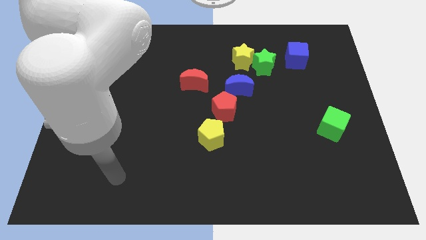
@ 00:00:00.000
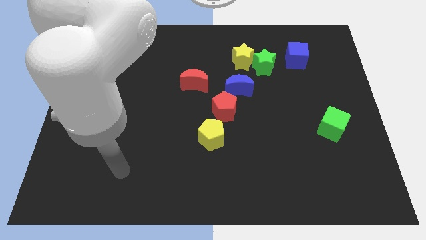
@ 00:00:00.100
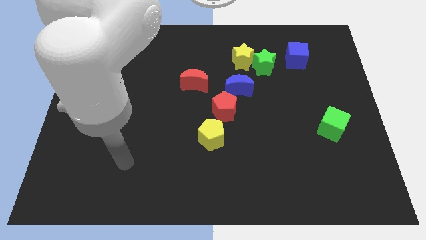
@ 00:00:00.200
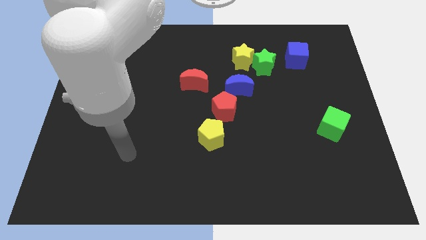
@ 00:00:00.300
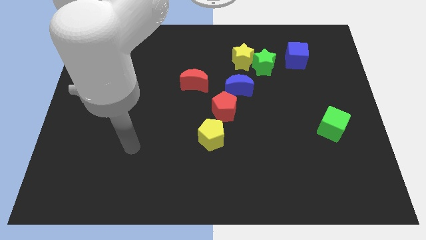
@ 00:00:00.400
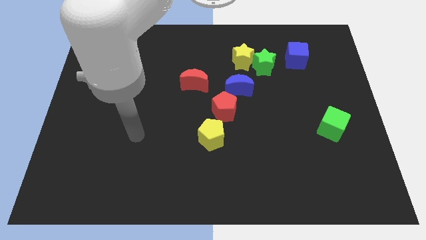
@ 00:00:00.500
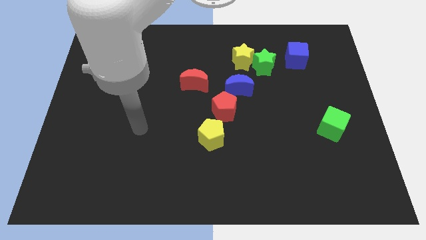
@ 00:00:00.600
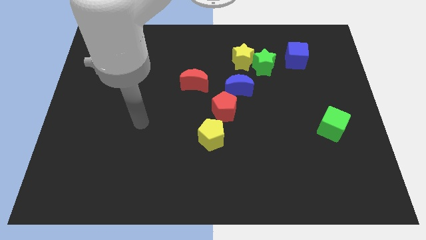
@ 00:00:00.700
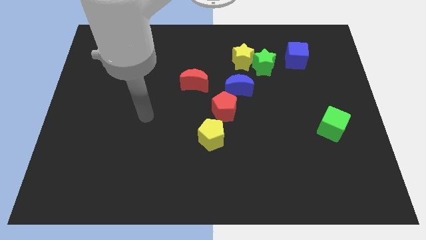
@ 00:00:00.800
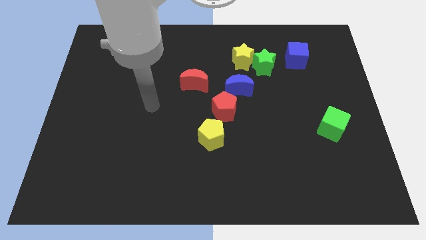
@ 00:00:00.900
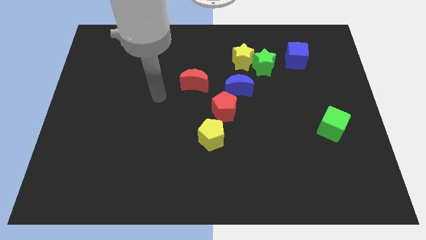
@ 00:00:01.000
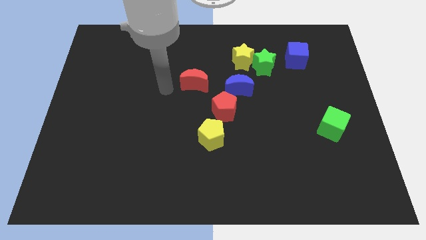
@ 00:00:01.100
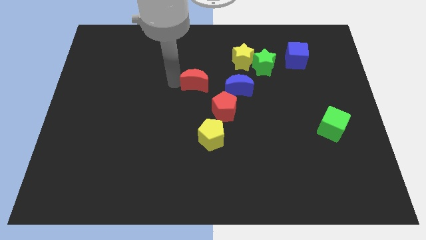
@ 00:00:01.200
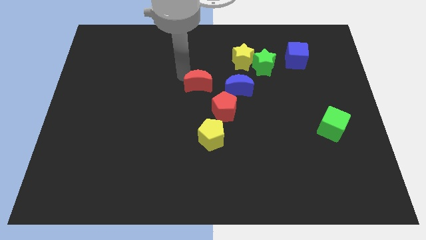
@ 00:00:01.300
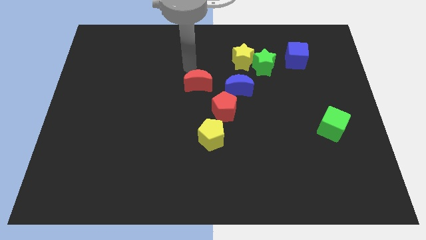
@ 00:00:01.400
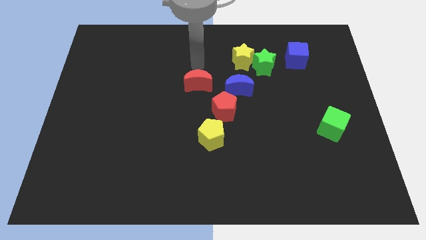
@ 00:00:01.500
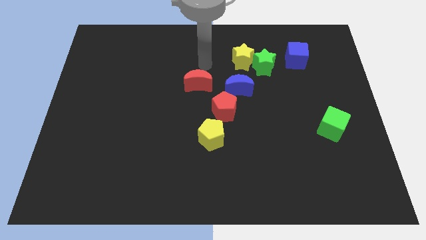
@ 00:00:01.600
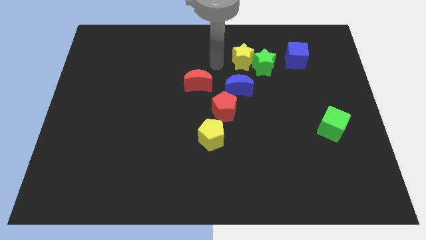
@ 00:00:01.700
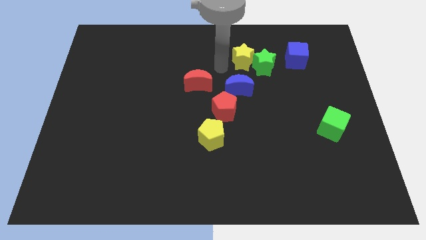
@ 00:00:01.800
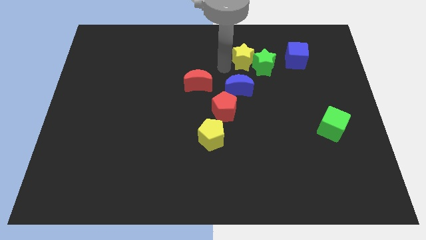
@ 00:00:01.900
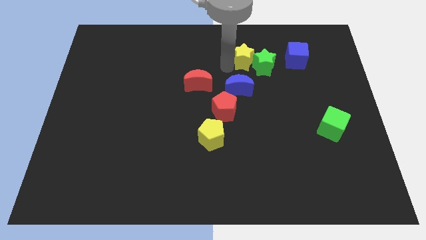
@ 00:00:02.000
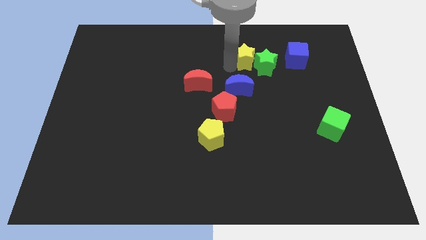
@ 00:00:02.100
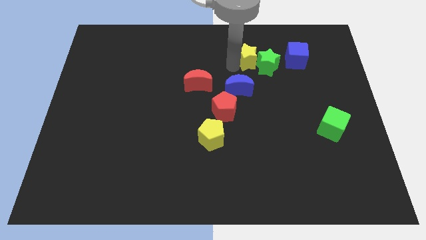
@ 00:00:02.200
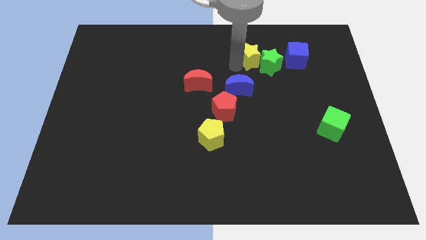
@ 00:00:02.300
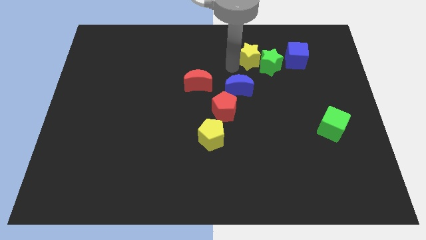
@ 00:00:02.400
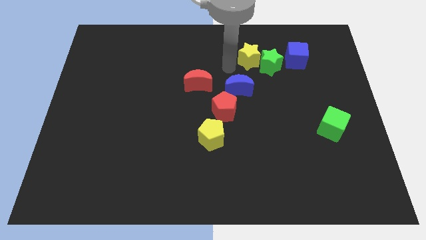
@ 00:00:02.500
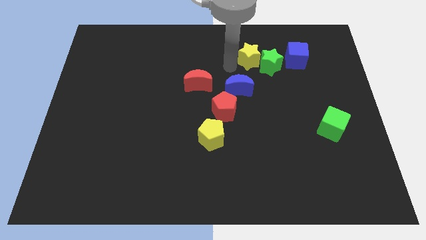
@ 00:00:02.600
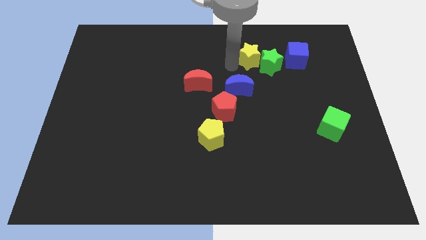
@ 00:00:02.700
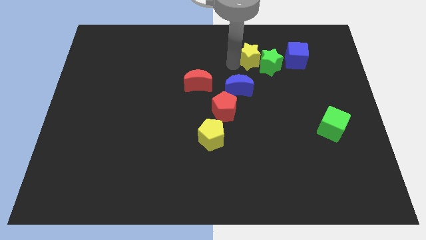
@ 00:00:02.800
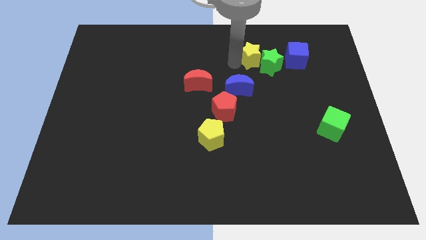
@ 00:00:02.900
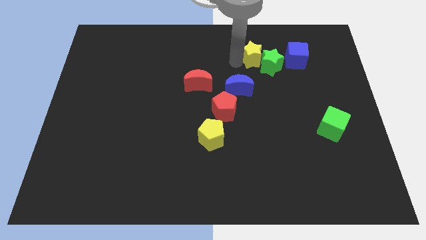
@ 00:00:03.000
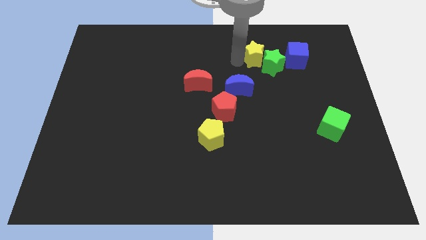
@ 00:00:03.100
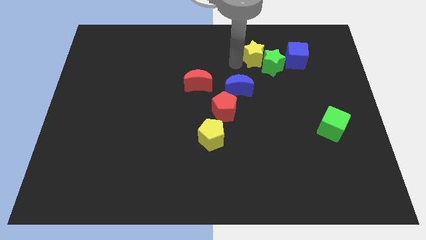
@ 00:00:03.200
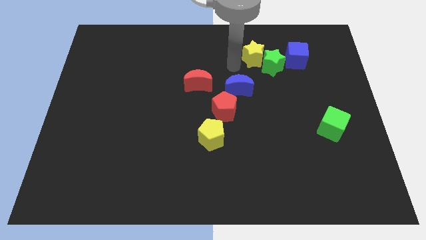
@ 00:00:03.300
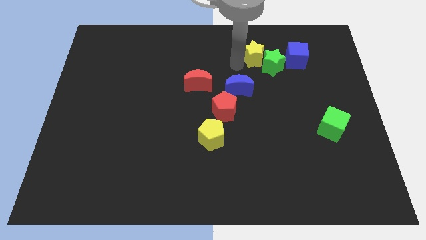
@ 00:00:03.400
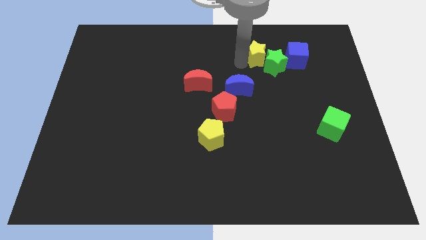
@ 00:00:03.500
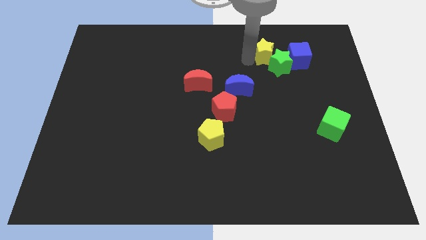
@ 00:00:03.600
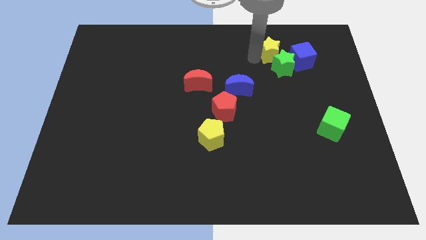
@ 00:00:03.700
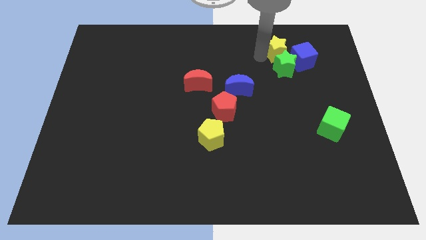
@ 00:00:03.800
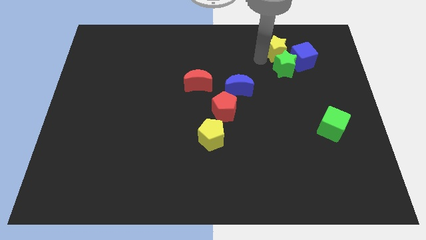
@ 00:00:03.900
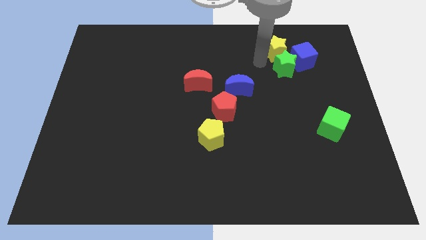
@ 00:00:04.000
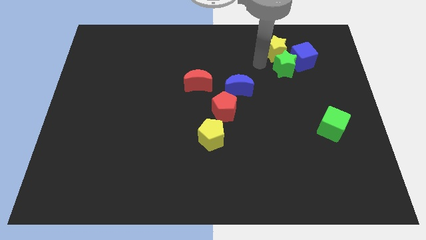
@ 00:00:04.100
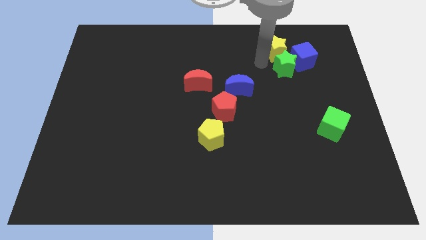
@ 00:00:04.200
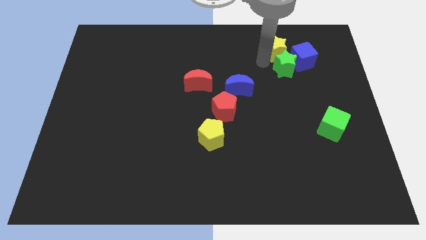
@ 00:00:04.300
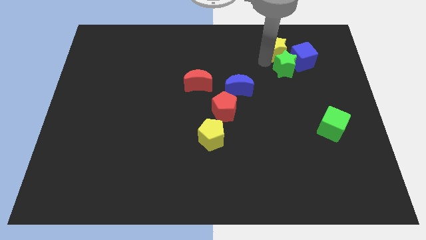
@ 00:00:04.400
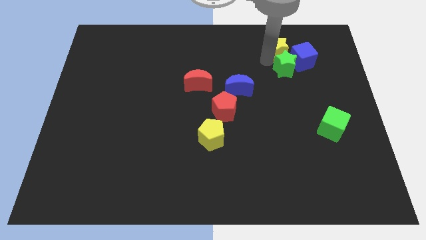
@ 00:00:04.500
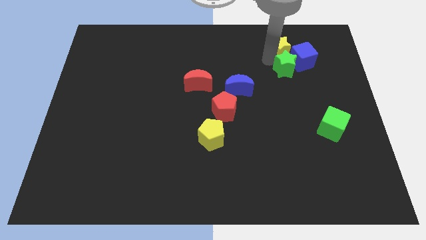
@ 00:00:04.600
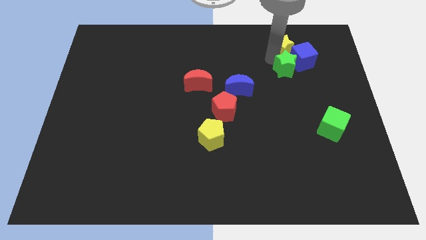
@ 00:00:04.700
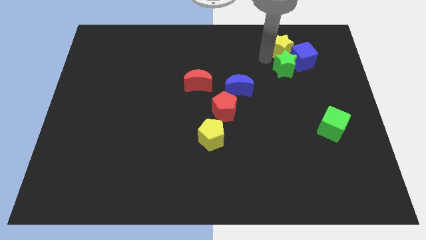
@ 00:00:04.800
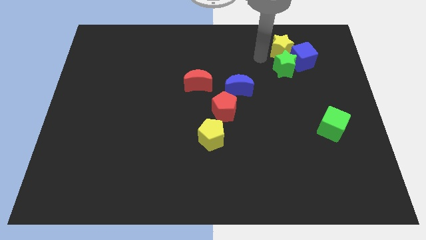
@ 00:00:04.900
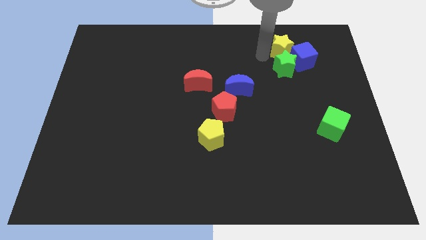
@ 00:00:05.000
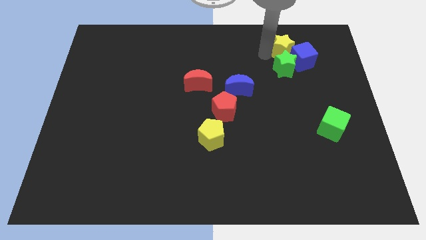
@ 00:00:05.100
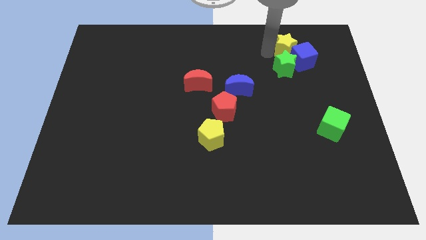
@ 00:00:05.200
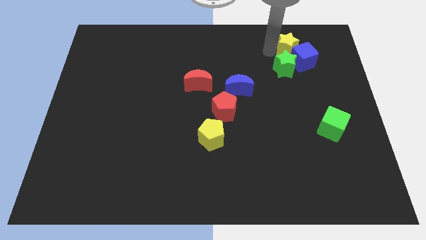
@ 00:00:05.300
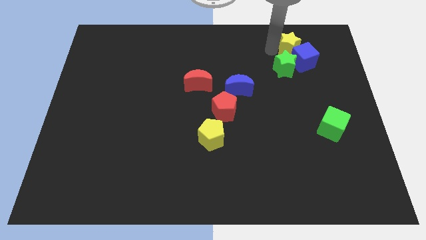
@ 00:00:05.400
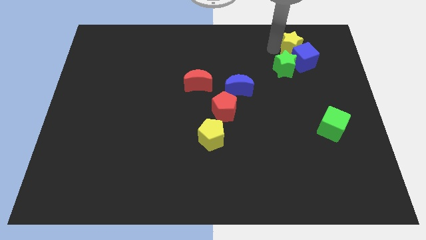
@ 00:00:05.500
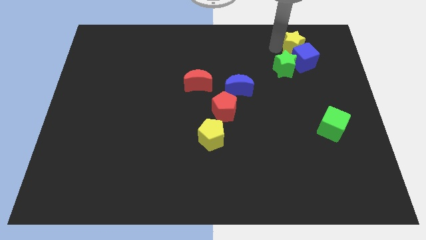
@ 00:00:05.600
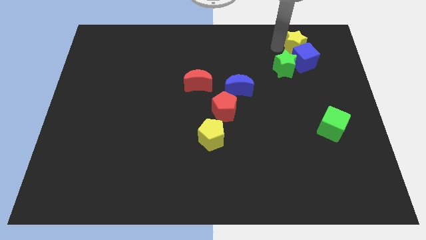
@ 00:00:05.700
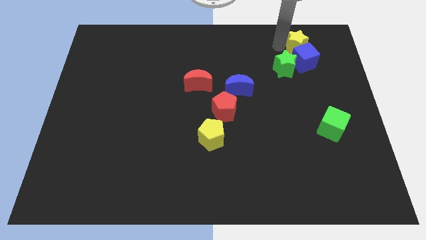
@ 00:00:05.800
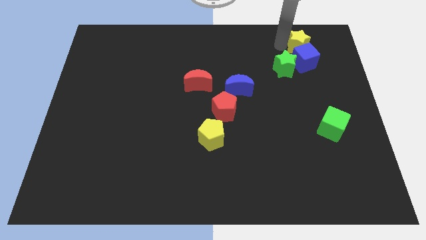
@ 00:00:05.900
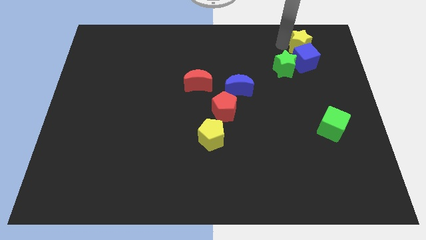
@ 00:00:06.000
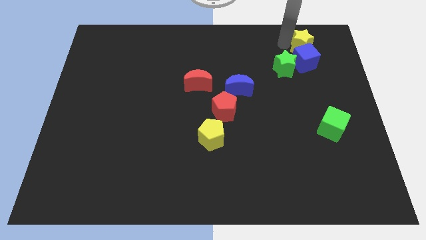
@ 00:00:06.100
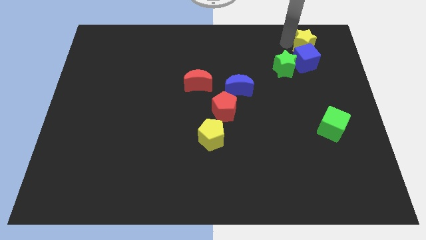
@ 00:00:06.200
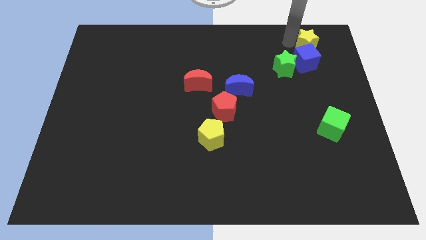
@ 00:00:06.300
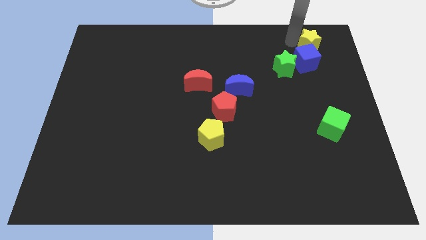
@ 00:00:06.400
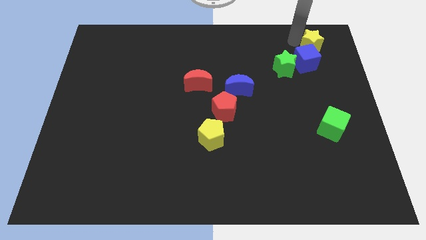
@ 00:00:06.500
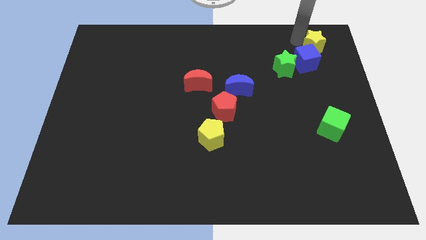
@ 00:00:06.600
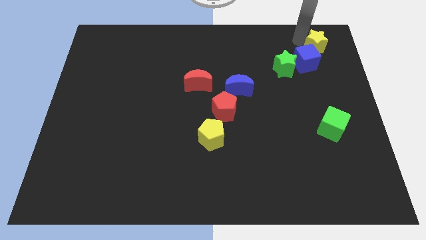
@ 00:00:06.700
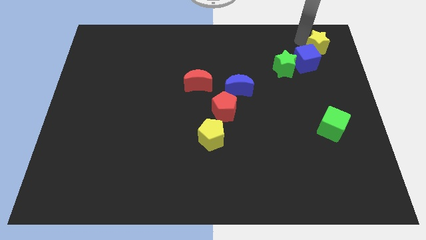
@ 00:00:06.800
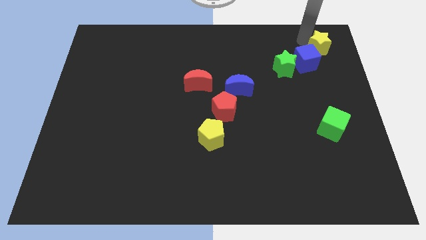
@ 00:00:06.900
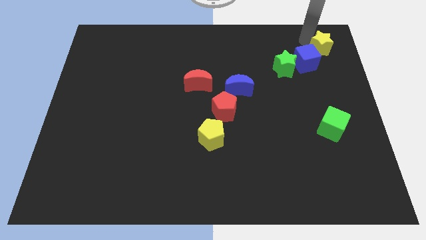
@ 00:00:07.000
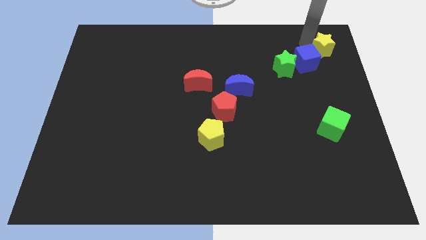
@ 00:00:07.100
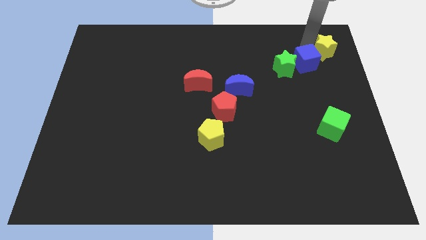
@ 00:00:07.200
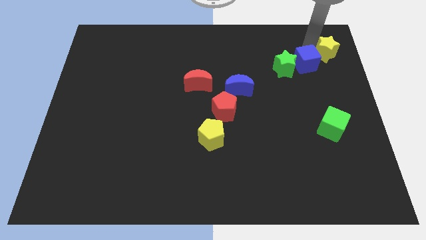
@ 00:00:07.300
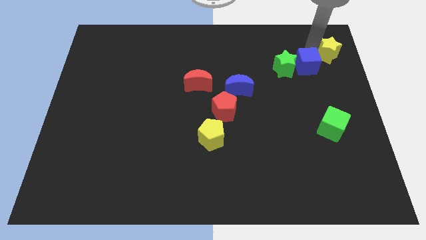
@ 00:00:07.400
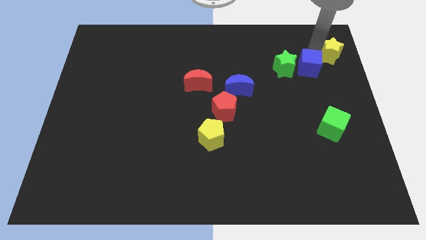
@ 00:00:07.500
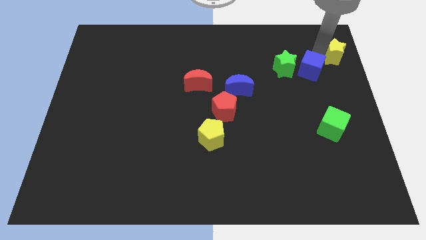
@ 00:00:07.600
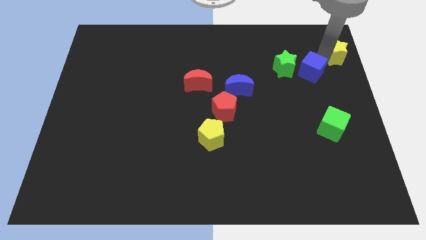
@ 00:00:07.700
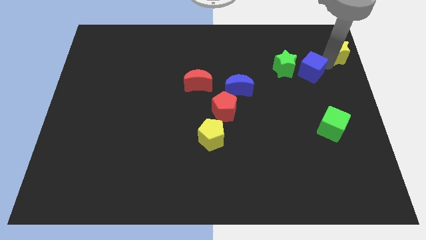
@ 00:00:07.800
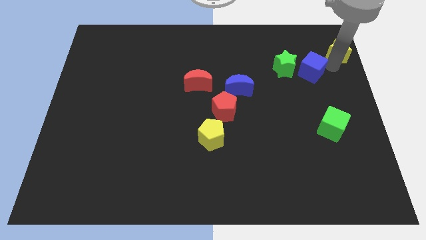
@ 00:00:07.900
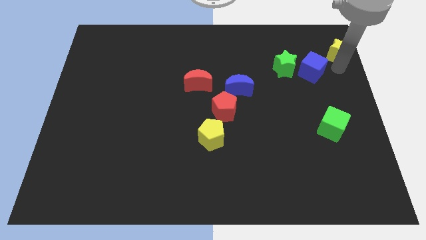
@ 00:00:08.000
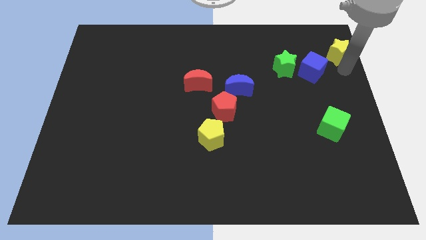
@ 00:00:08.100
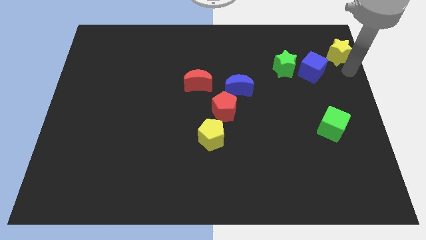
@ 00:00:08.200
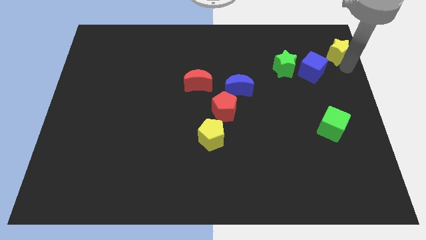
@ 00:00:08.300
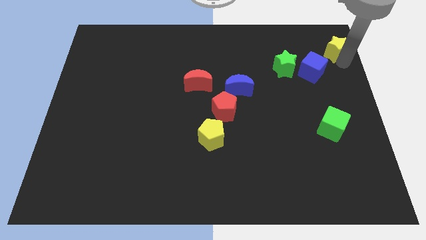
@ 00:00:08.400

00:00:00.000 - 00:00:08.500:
push the yellow star to the top right
